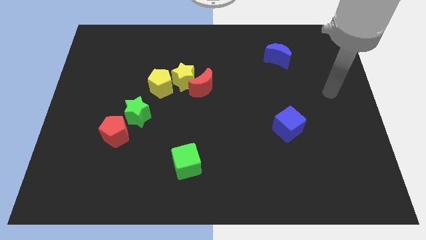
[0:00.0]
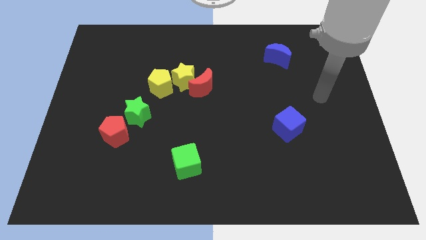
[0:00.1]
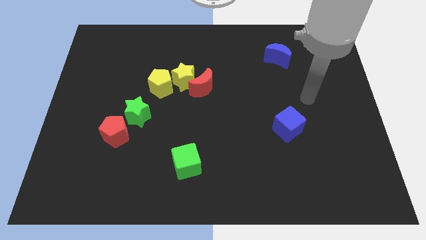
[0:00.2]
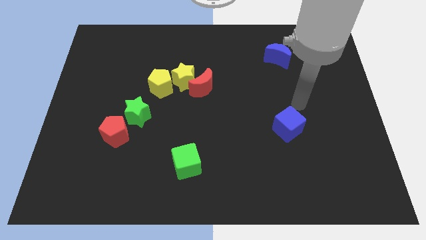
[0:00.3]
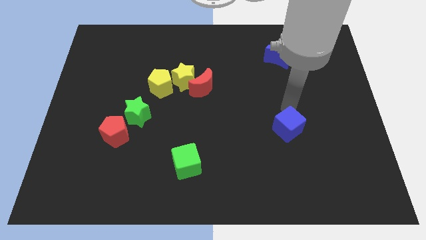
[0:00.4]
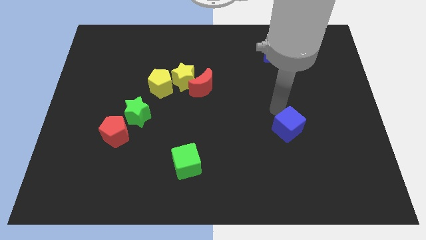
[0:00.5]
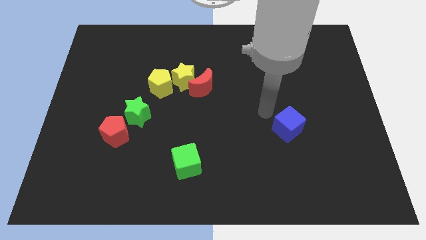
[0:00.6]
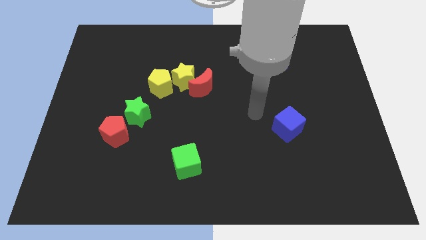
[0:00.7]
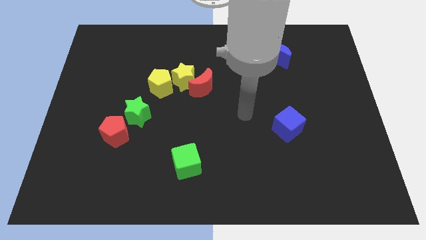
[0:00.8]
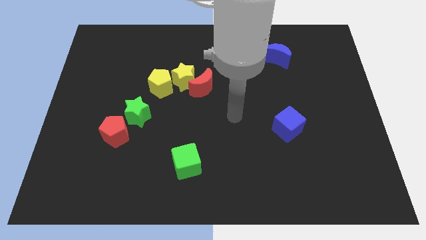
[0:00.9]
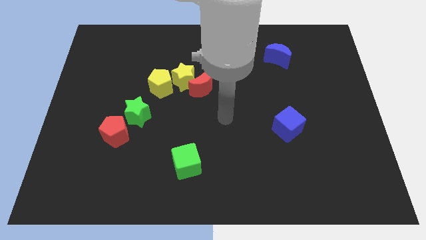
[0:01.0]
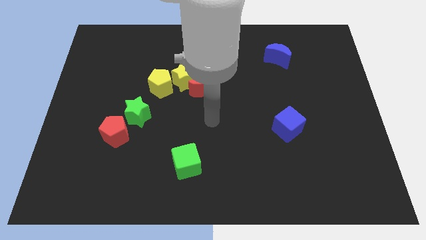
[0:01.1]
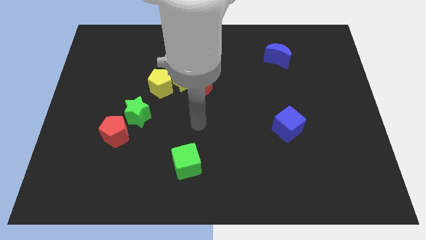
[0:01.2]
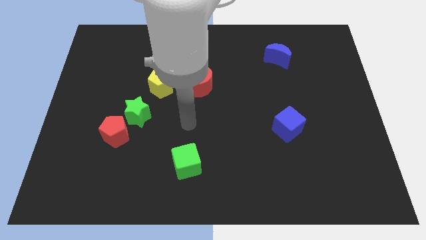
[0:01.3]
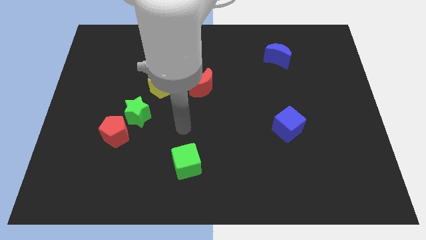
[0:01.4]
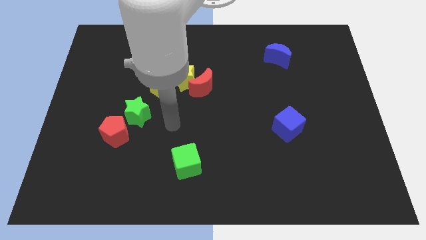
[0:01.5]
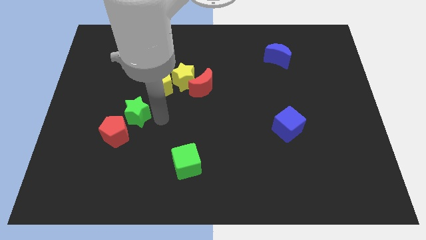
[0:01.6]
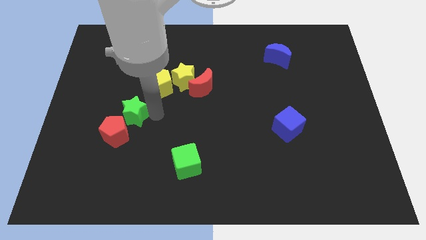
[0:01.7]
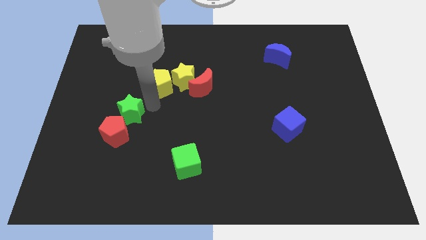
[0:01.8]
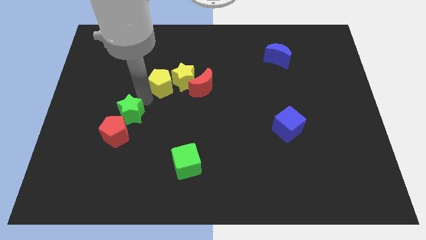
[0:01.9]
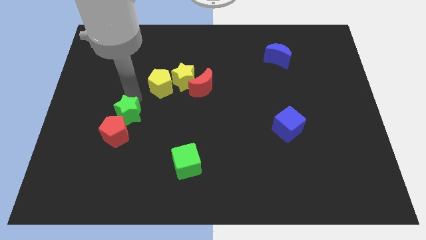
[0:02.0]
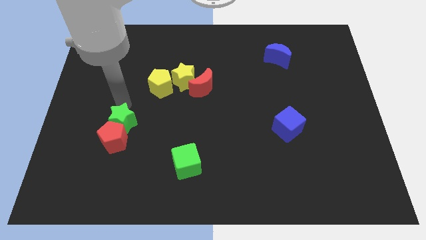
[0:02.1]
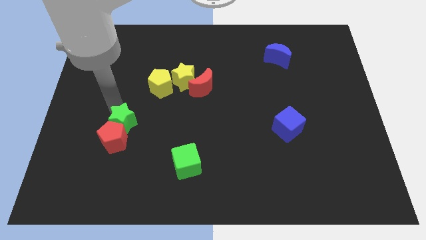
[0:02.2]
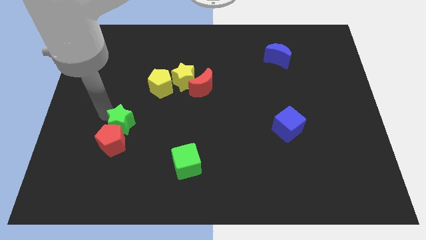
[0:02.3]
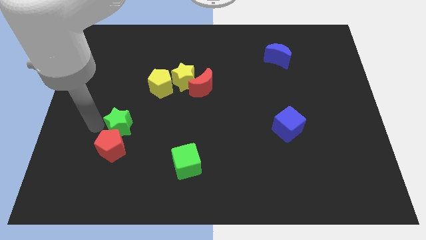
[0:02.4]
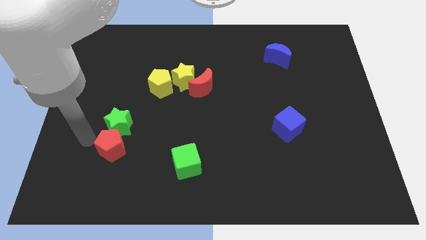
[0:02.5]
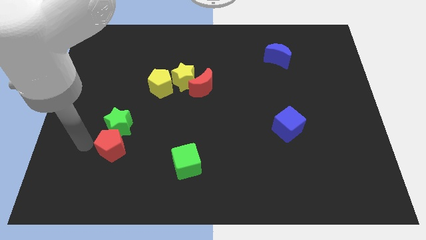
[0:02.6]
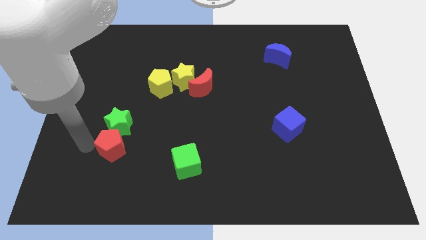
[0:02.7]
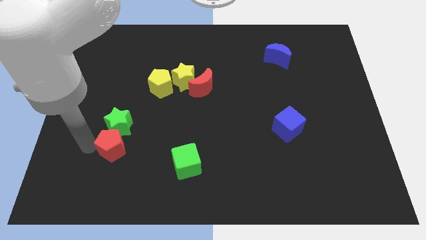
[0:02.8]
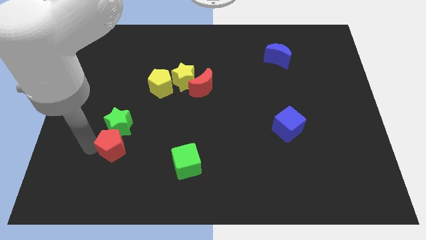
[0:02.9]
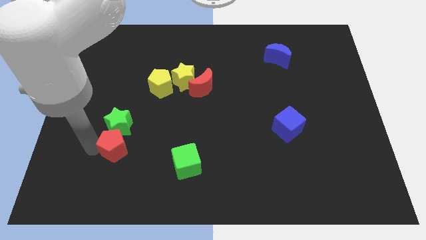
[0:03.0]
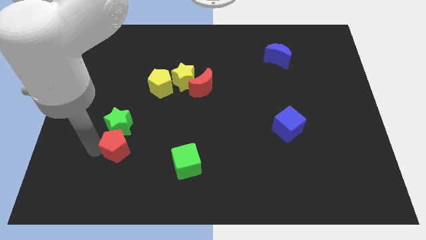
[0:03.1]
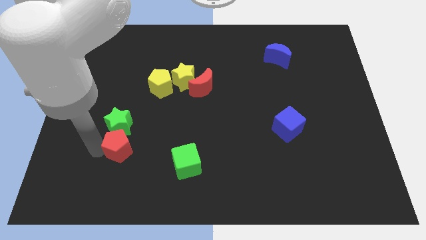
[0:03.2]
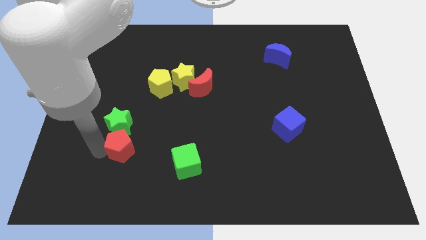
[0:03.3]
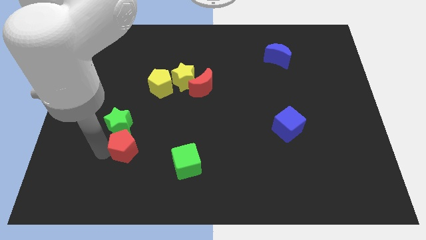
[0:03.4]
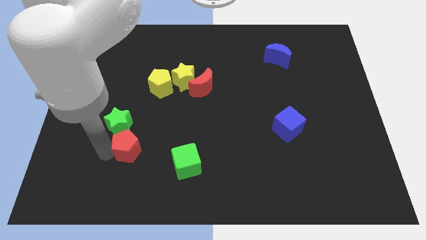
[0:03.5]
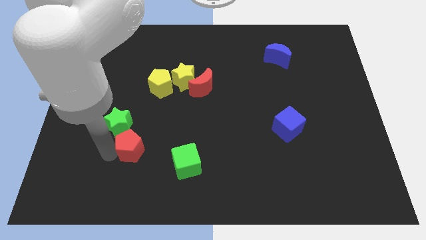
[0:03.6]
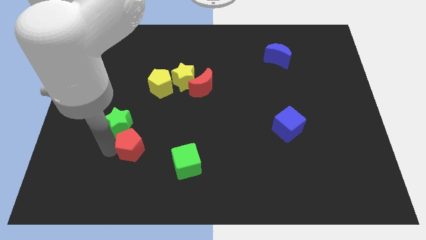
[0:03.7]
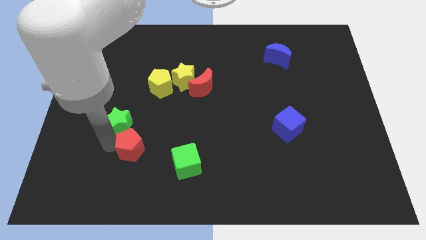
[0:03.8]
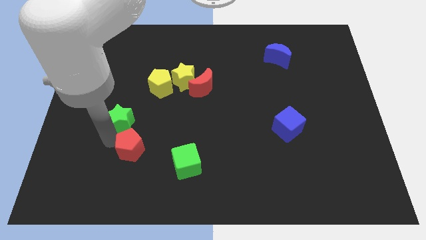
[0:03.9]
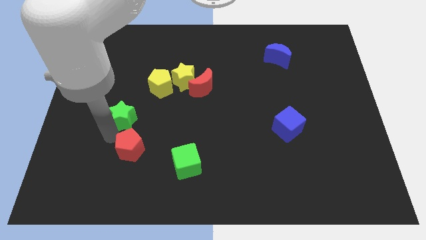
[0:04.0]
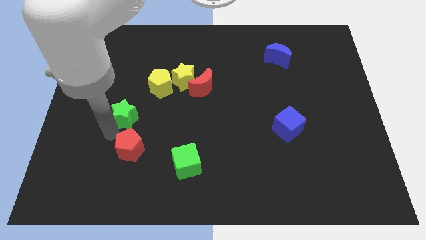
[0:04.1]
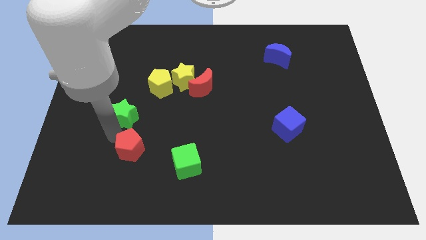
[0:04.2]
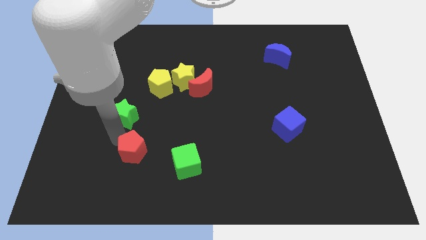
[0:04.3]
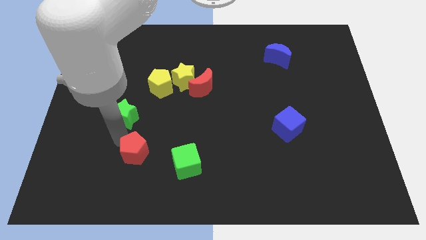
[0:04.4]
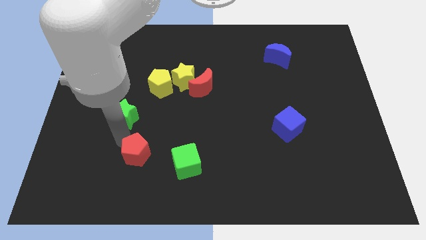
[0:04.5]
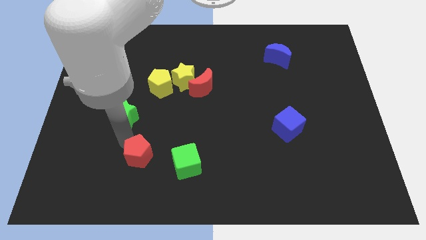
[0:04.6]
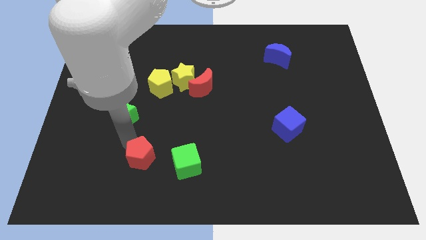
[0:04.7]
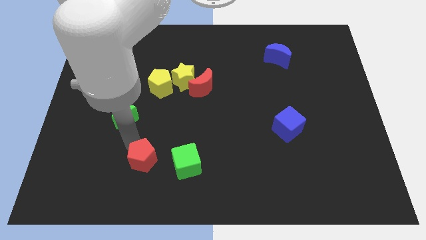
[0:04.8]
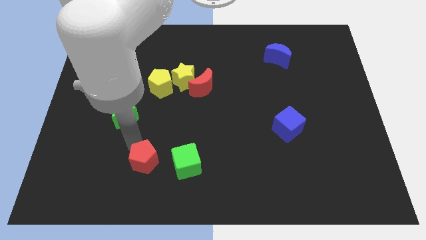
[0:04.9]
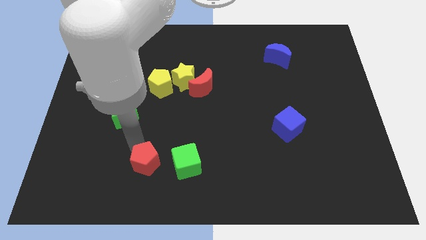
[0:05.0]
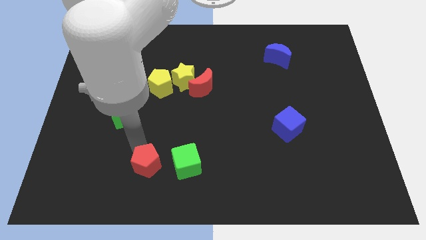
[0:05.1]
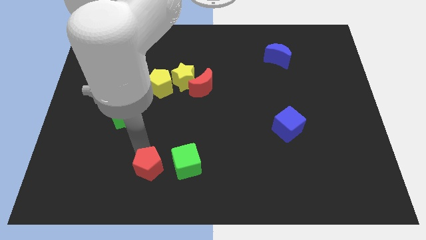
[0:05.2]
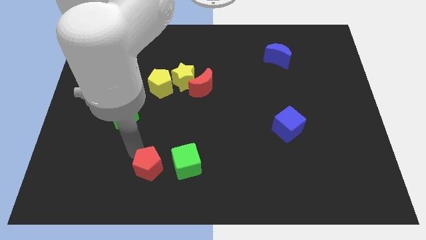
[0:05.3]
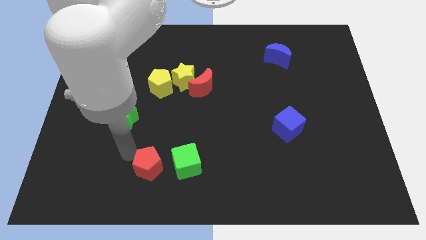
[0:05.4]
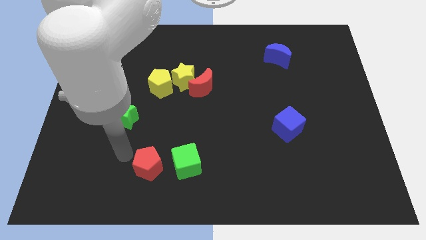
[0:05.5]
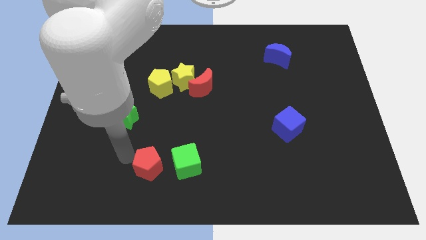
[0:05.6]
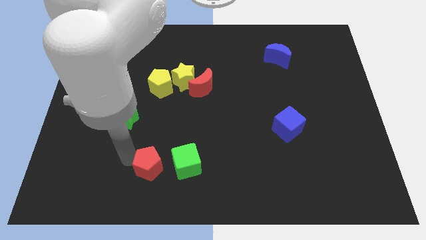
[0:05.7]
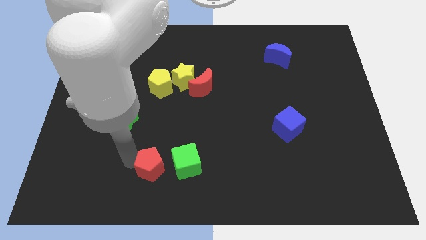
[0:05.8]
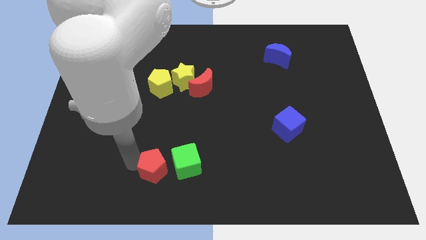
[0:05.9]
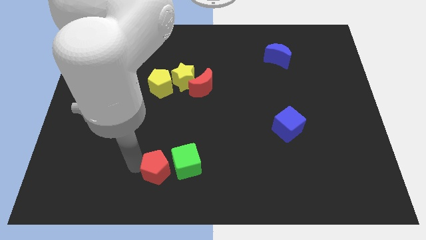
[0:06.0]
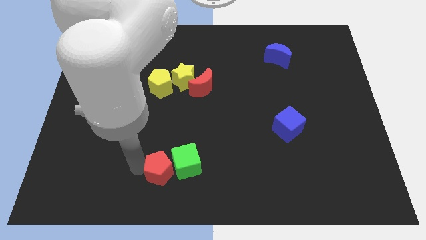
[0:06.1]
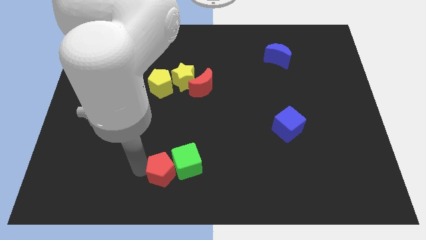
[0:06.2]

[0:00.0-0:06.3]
slide the red pentagon to the bottom side
